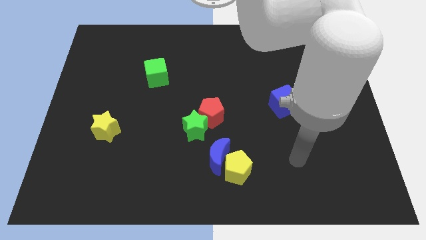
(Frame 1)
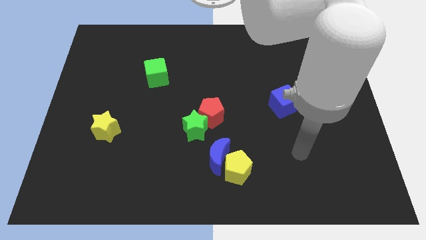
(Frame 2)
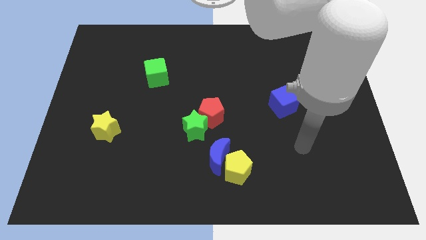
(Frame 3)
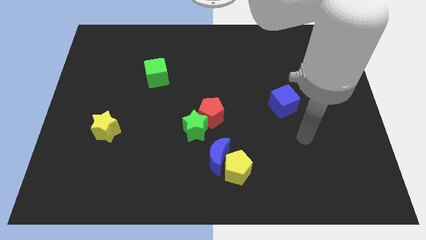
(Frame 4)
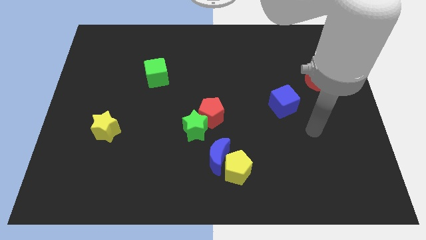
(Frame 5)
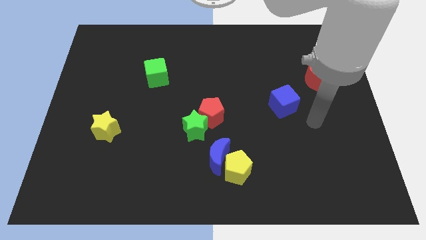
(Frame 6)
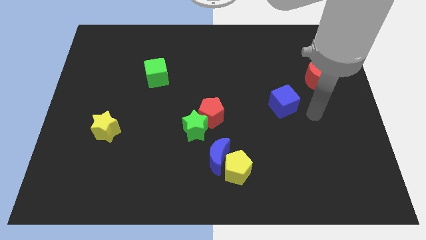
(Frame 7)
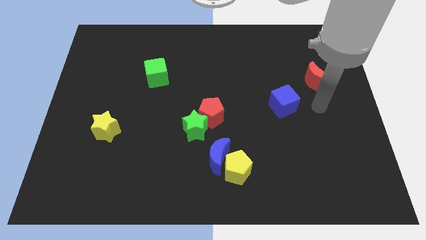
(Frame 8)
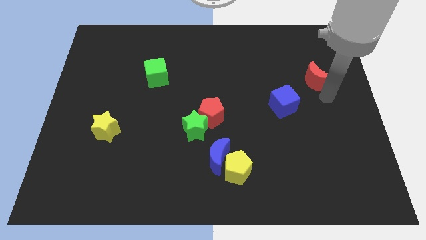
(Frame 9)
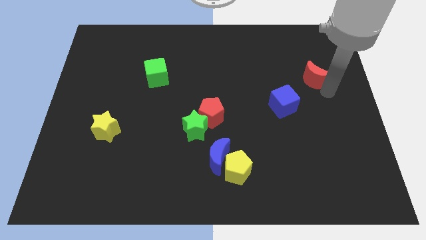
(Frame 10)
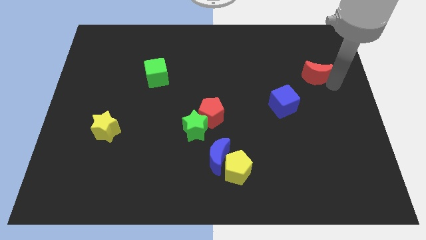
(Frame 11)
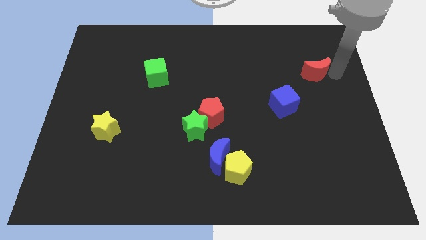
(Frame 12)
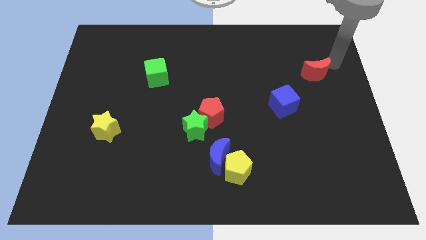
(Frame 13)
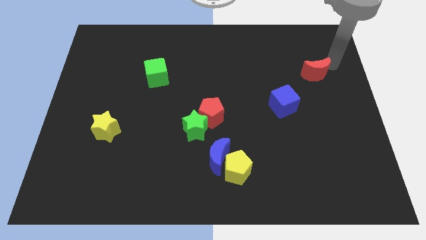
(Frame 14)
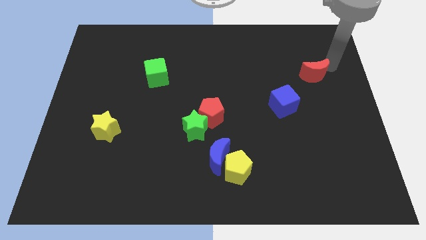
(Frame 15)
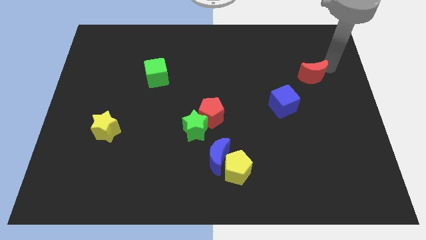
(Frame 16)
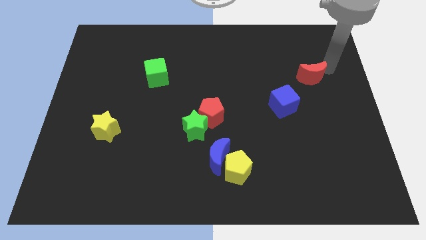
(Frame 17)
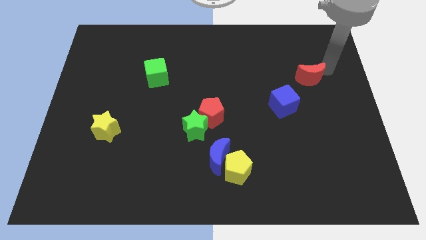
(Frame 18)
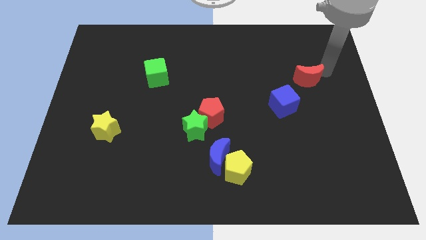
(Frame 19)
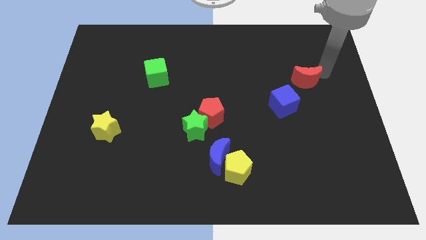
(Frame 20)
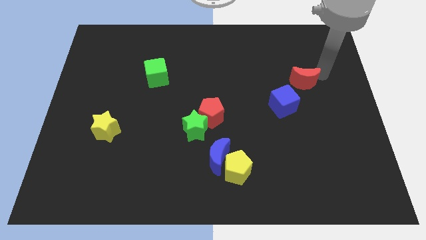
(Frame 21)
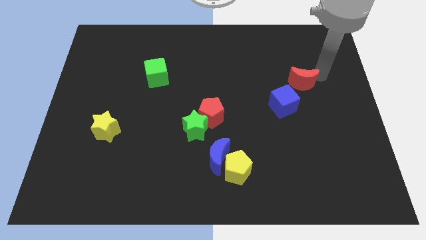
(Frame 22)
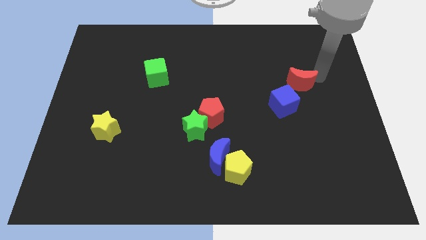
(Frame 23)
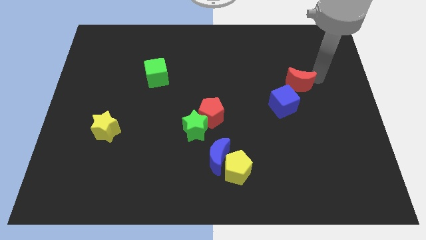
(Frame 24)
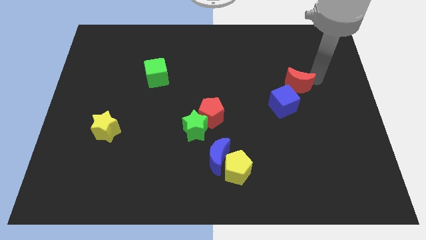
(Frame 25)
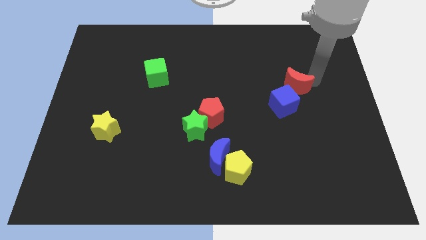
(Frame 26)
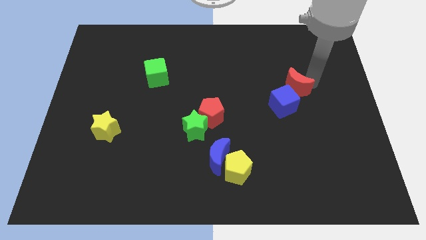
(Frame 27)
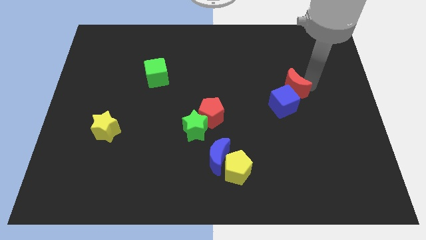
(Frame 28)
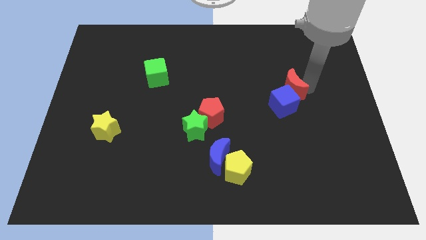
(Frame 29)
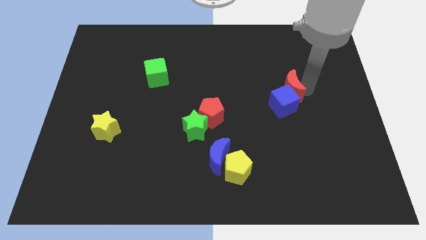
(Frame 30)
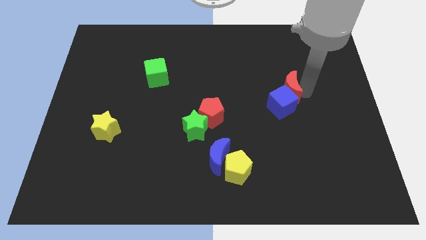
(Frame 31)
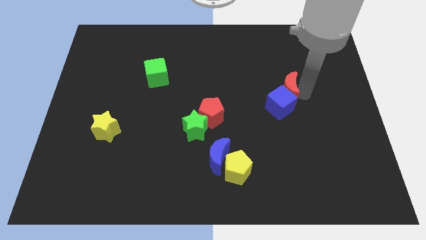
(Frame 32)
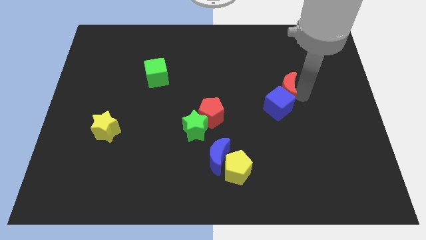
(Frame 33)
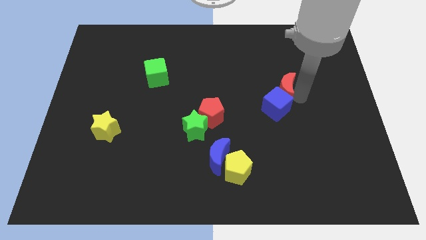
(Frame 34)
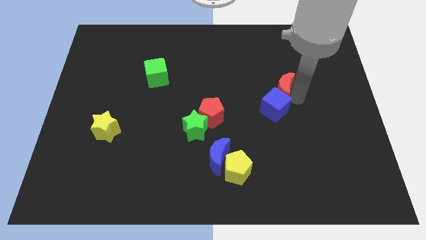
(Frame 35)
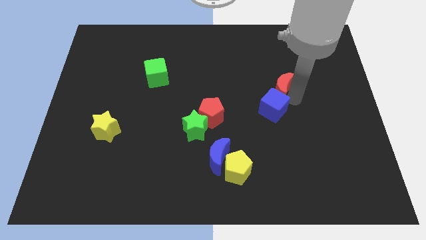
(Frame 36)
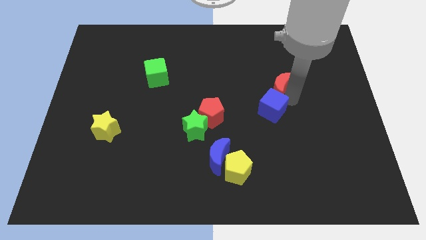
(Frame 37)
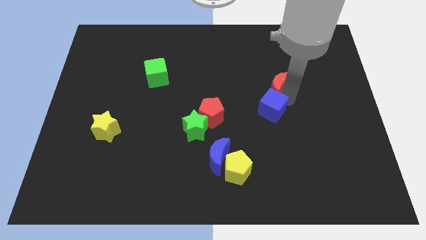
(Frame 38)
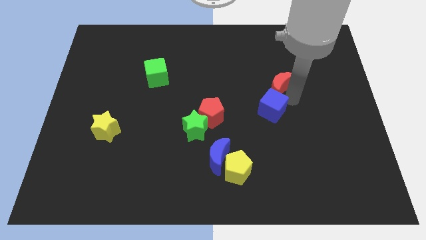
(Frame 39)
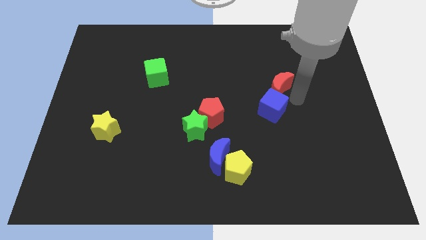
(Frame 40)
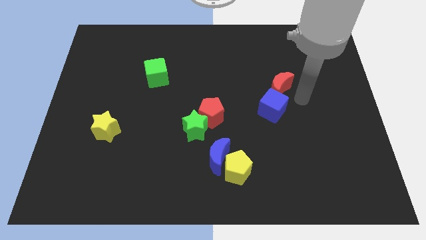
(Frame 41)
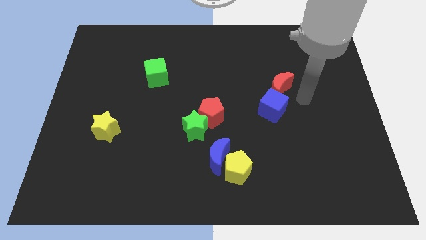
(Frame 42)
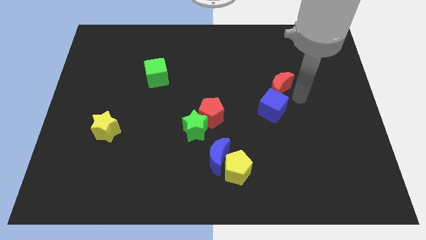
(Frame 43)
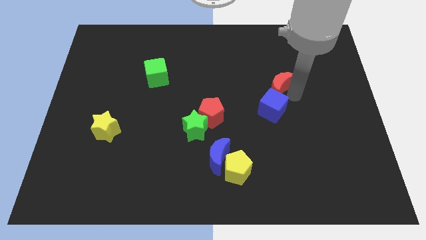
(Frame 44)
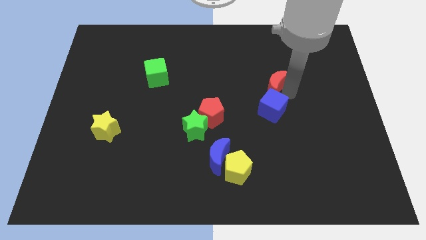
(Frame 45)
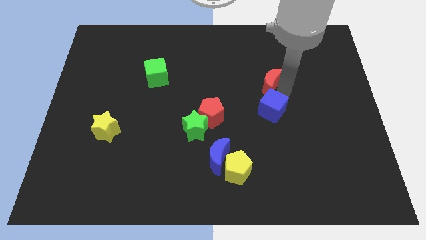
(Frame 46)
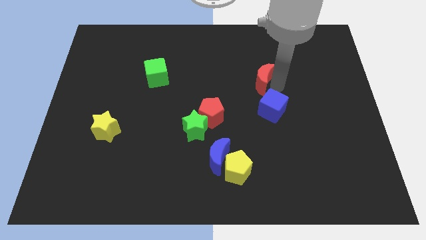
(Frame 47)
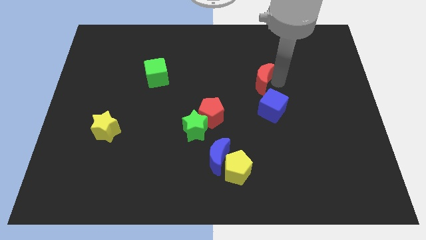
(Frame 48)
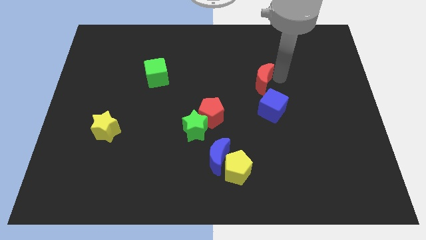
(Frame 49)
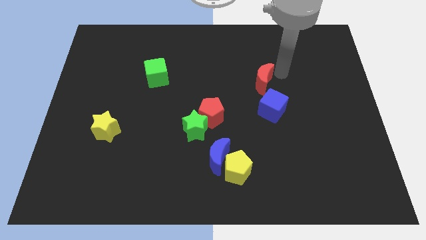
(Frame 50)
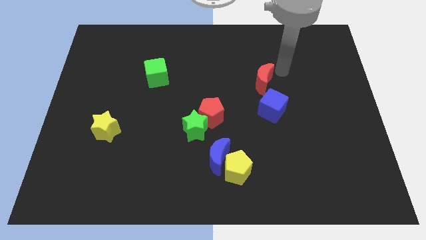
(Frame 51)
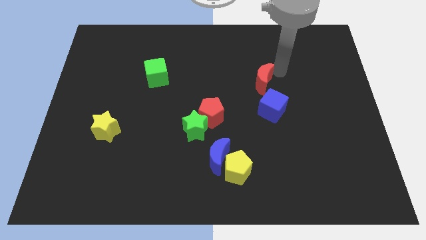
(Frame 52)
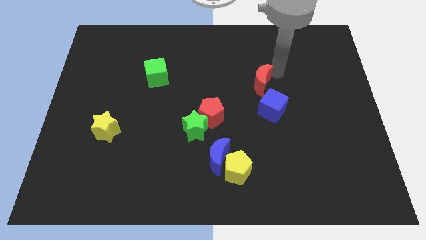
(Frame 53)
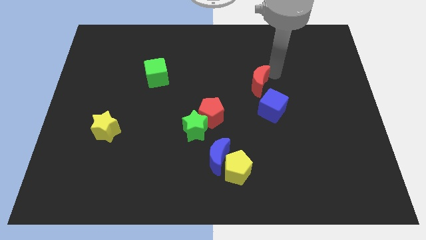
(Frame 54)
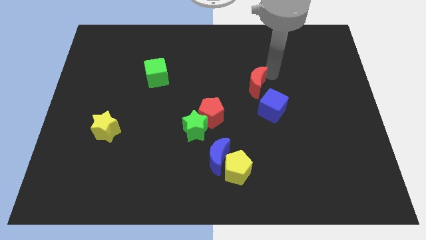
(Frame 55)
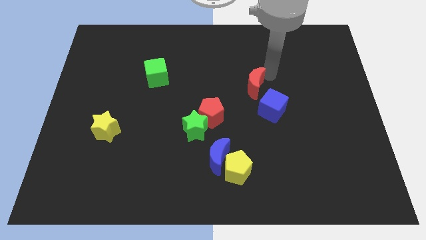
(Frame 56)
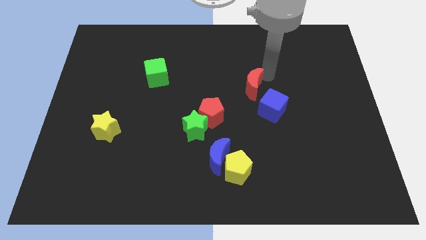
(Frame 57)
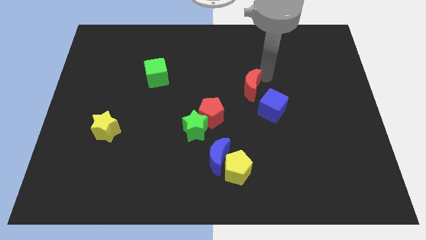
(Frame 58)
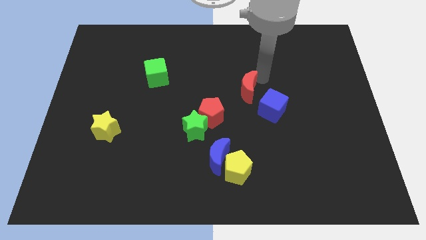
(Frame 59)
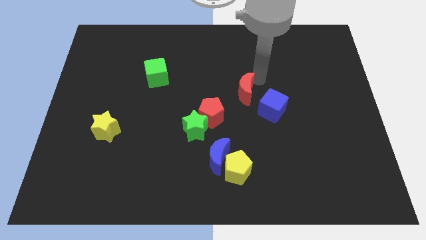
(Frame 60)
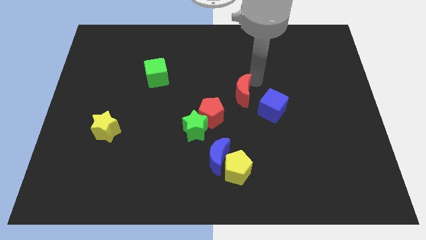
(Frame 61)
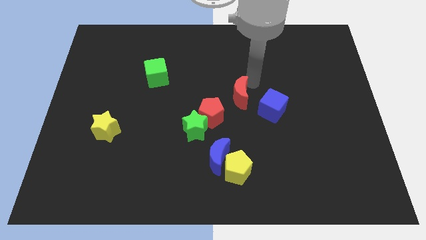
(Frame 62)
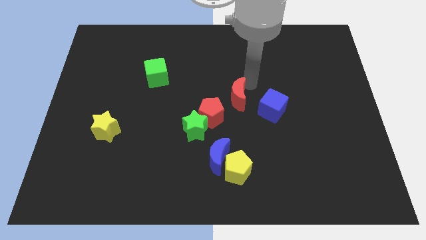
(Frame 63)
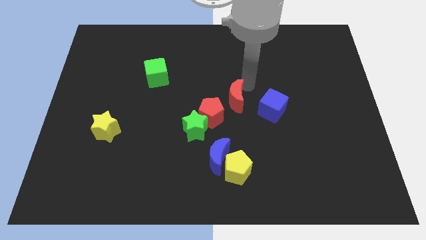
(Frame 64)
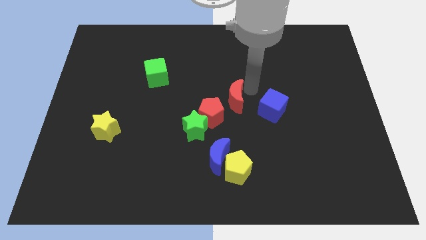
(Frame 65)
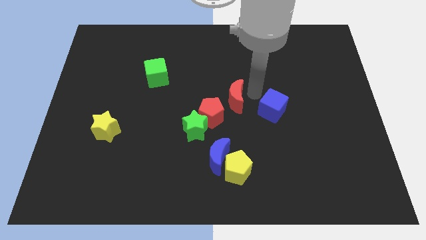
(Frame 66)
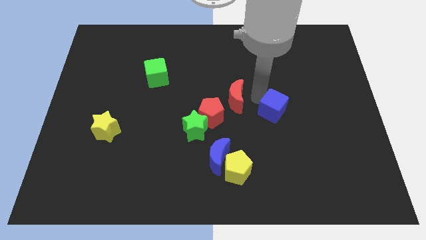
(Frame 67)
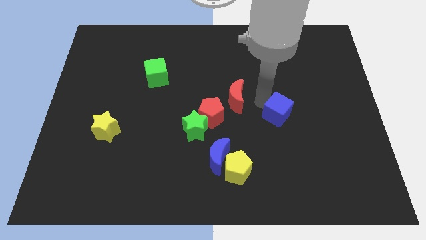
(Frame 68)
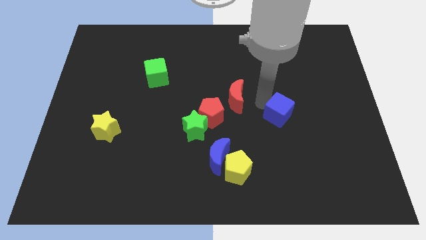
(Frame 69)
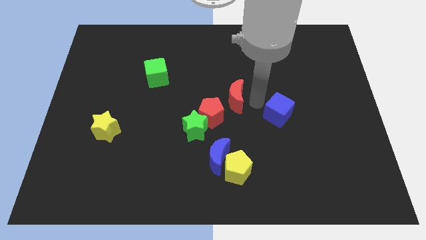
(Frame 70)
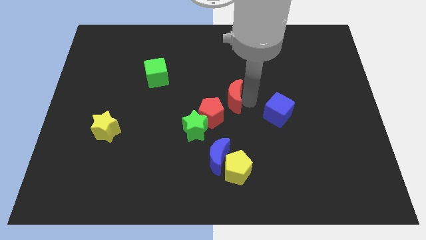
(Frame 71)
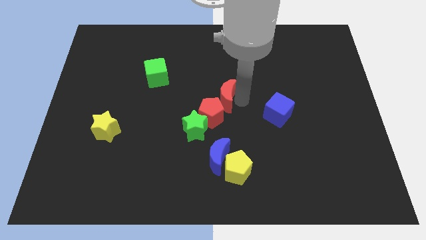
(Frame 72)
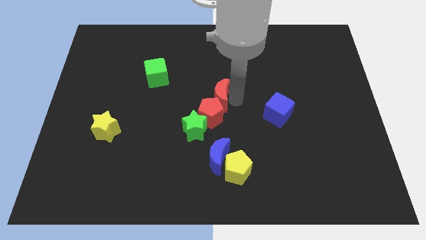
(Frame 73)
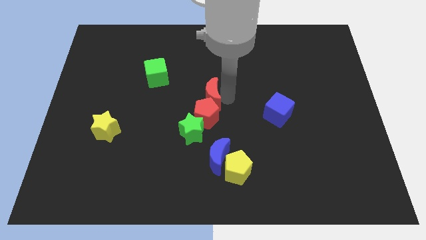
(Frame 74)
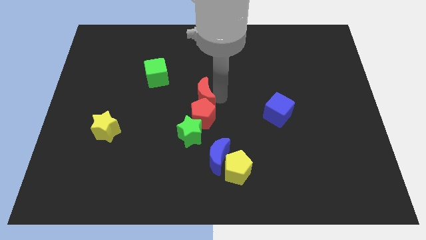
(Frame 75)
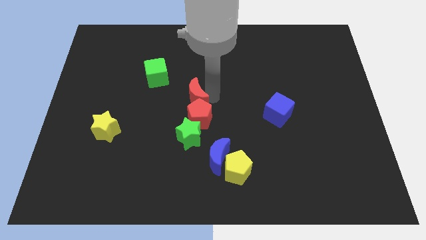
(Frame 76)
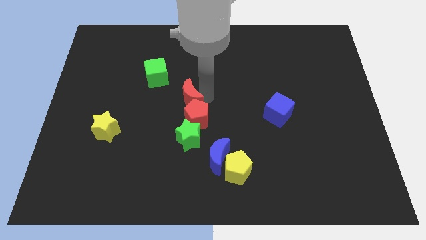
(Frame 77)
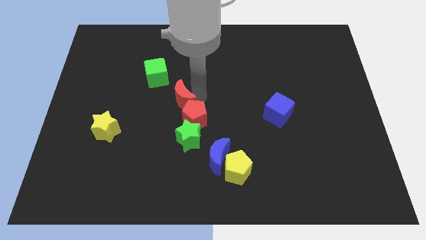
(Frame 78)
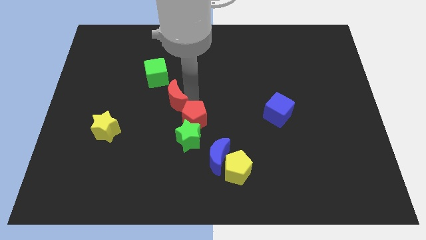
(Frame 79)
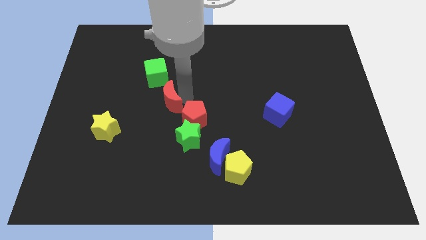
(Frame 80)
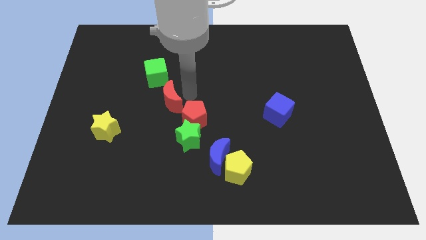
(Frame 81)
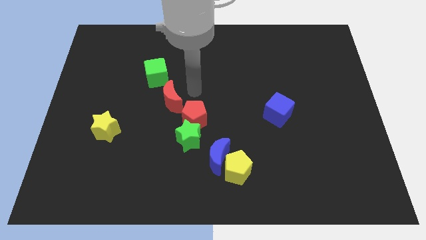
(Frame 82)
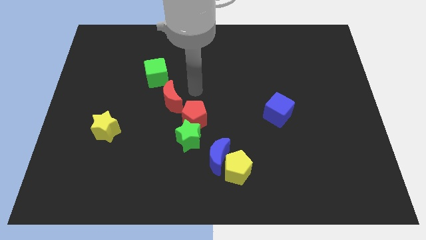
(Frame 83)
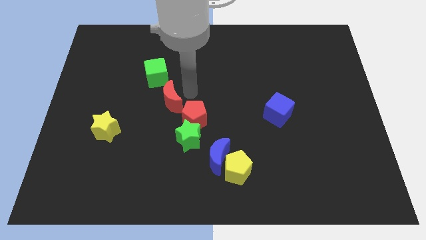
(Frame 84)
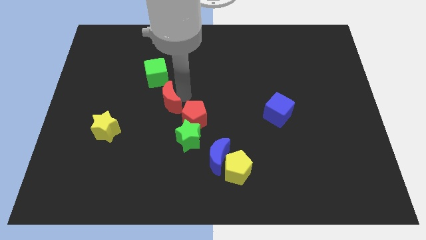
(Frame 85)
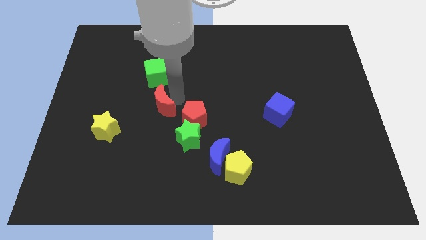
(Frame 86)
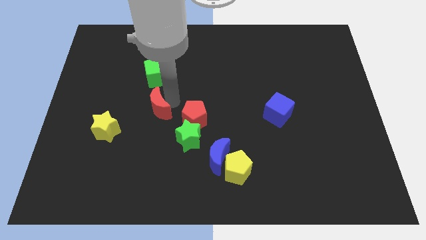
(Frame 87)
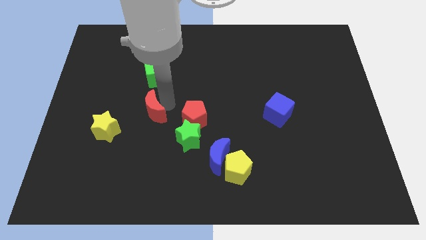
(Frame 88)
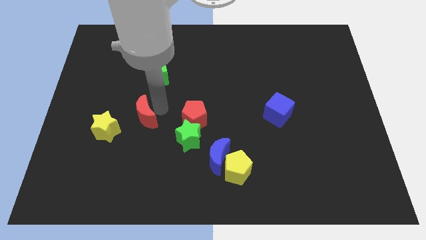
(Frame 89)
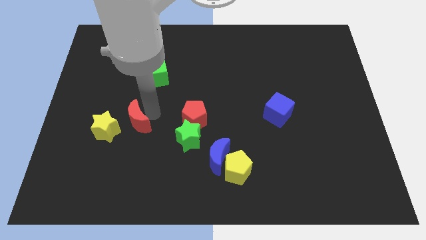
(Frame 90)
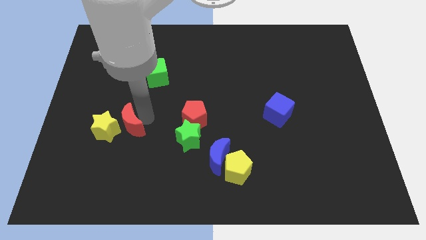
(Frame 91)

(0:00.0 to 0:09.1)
slide the red moon towards the yellow star
